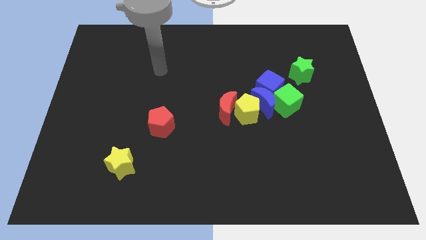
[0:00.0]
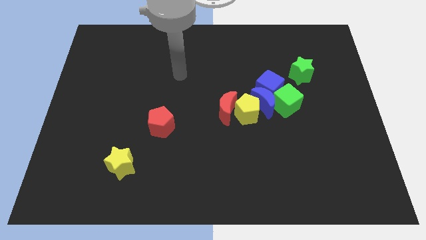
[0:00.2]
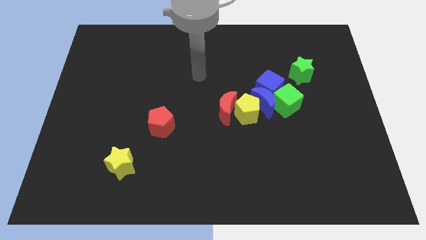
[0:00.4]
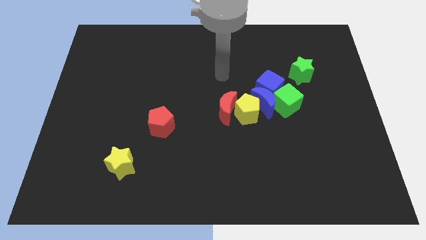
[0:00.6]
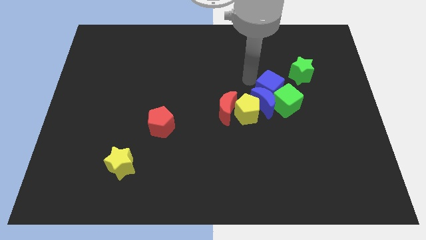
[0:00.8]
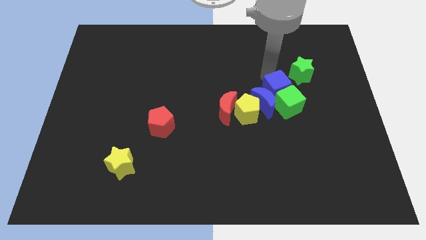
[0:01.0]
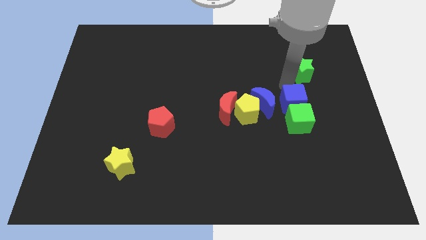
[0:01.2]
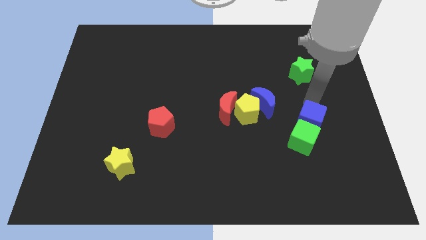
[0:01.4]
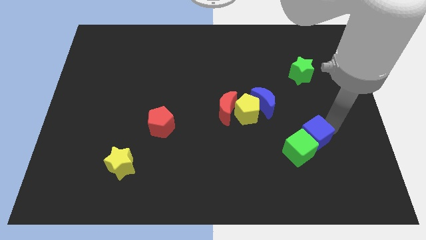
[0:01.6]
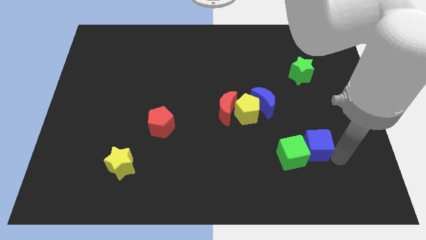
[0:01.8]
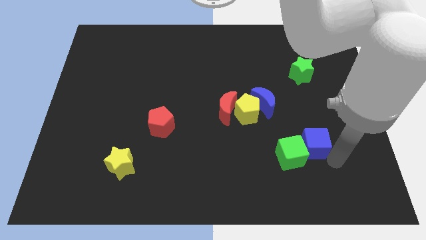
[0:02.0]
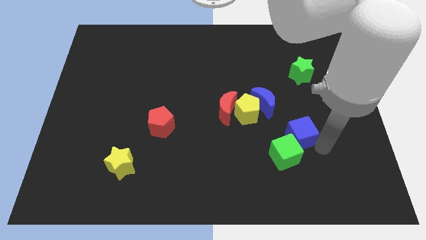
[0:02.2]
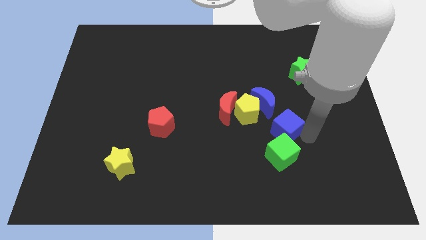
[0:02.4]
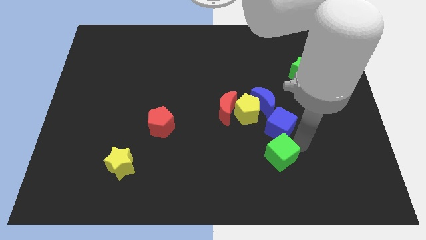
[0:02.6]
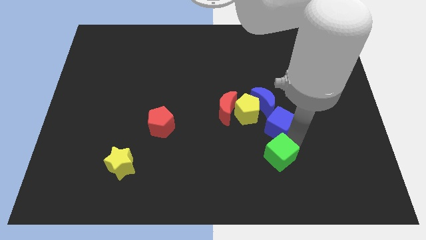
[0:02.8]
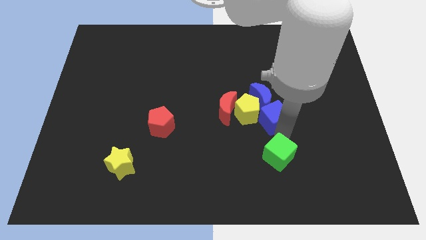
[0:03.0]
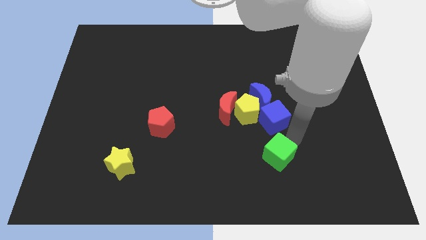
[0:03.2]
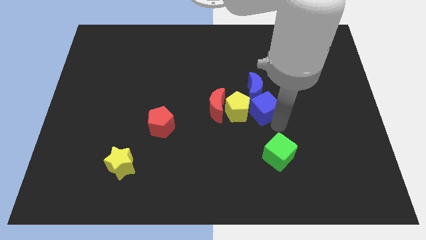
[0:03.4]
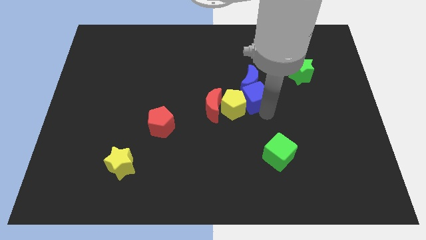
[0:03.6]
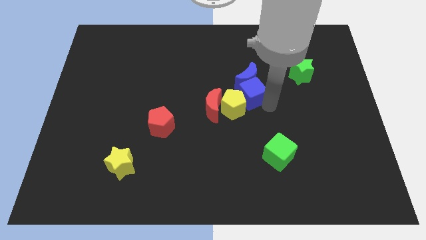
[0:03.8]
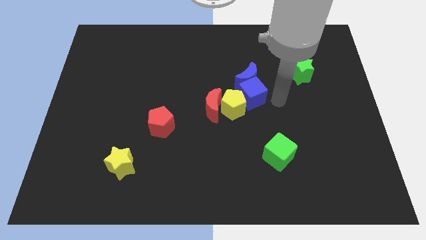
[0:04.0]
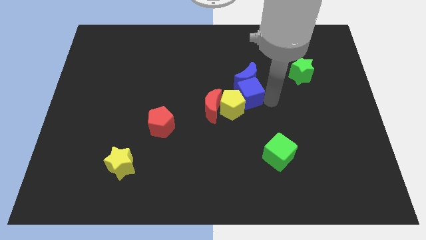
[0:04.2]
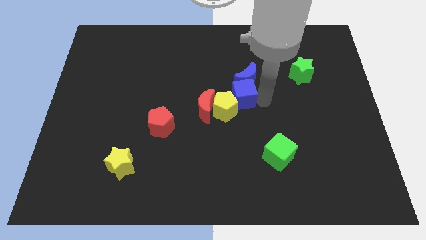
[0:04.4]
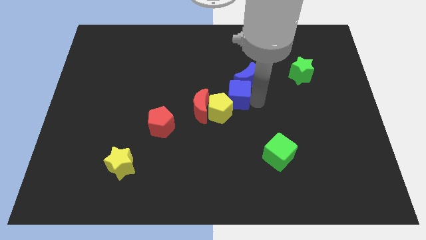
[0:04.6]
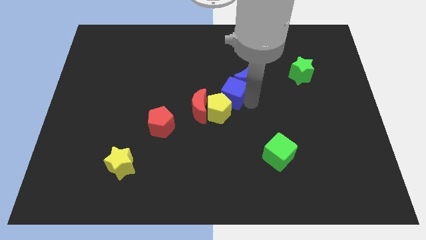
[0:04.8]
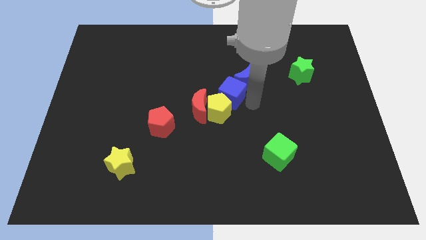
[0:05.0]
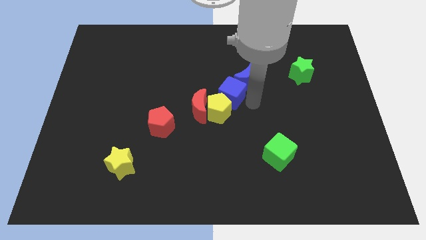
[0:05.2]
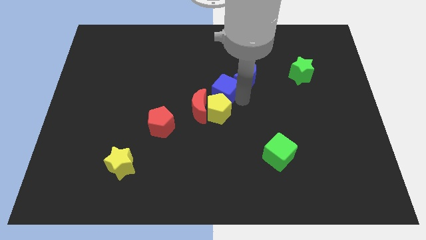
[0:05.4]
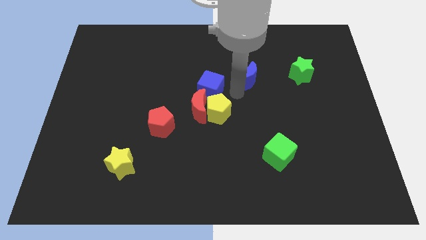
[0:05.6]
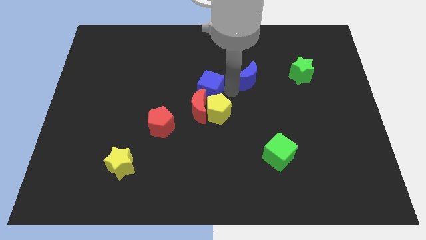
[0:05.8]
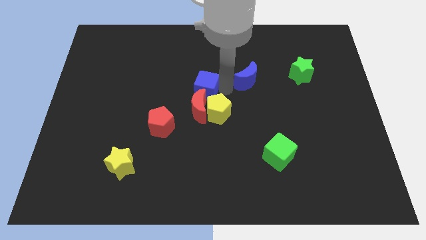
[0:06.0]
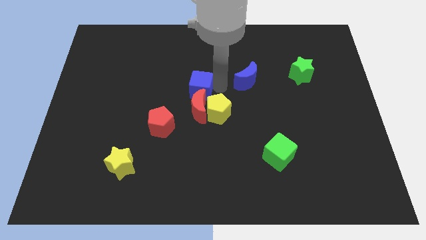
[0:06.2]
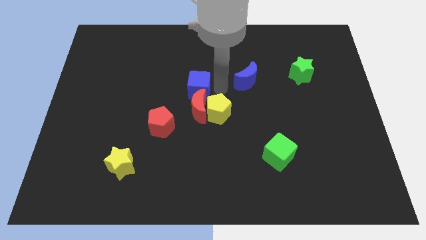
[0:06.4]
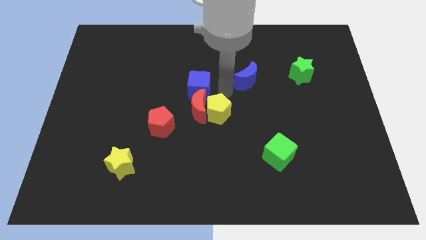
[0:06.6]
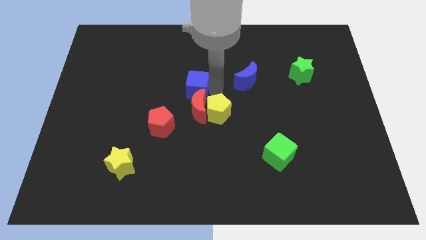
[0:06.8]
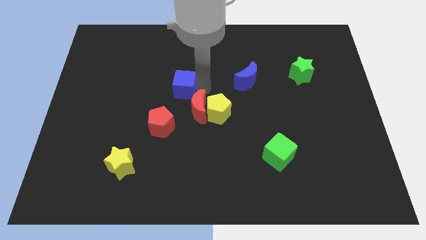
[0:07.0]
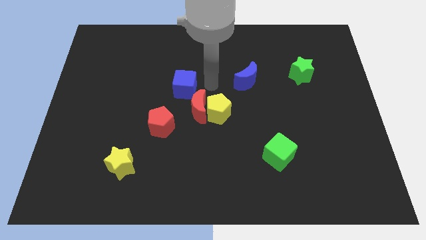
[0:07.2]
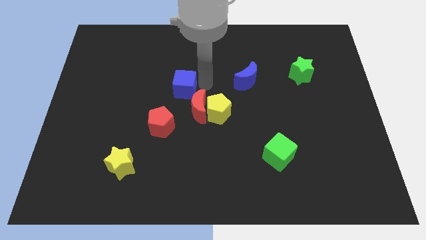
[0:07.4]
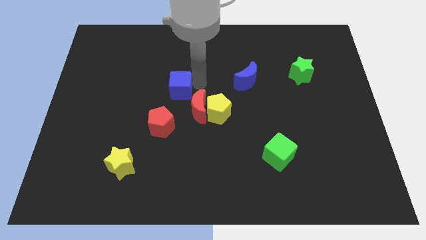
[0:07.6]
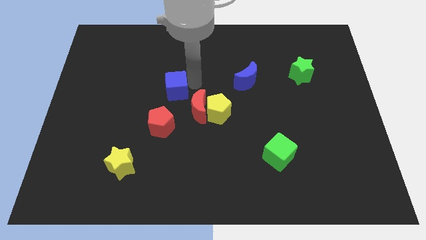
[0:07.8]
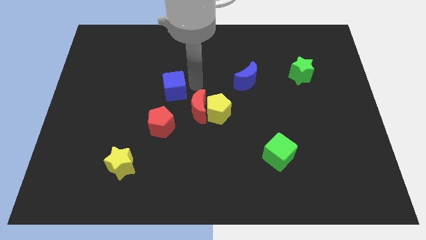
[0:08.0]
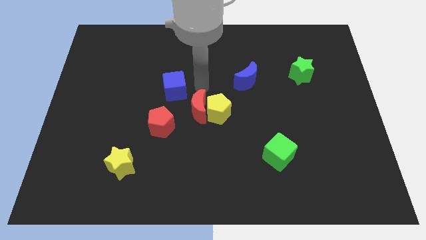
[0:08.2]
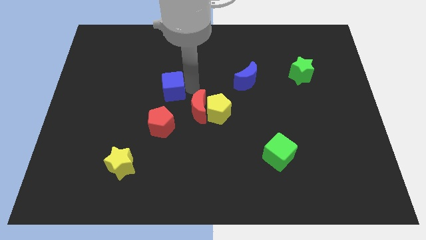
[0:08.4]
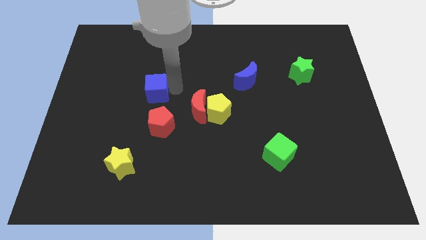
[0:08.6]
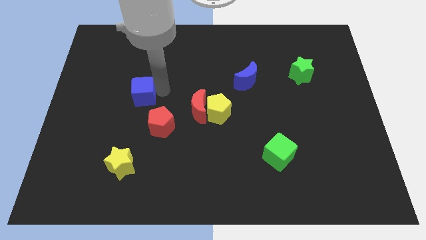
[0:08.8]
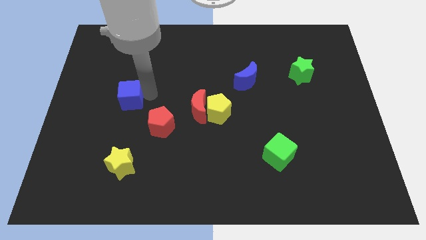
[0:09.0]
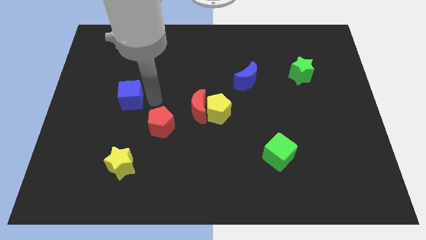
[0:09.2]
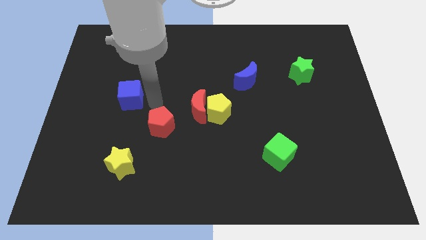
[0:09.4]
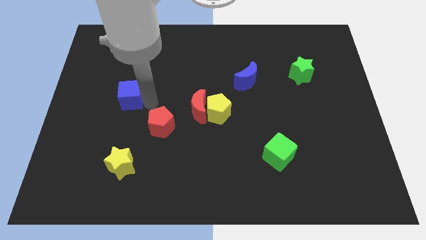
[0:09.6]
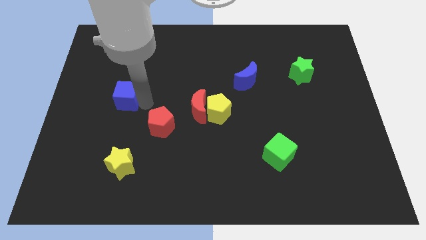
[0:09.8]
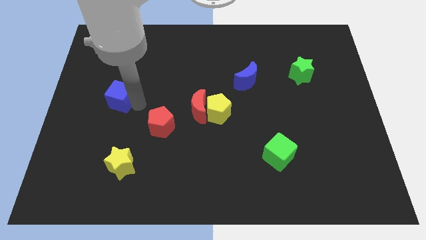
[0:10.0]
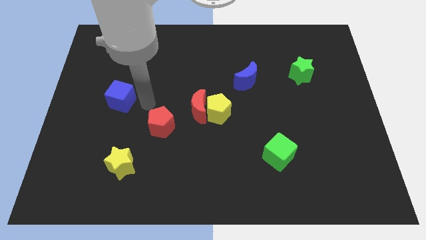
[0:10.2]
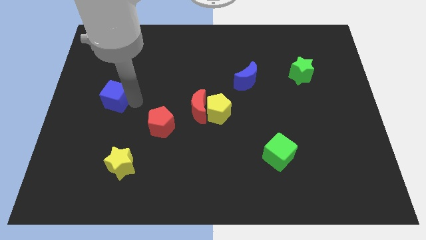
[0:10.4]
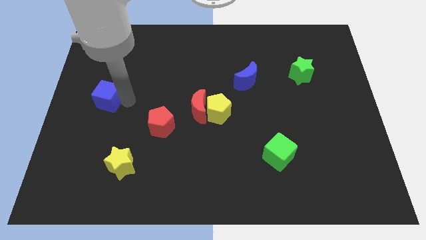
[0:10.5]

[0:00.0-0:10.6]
slide the blue cube to the left side

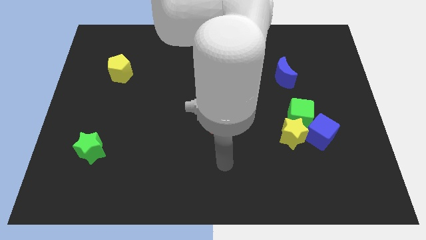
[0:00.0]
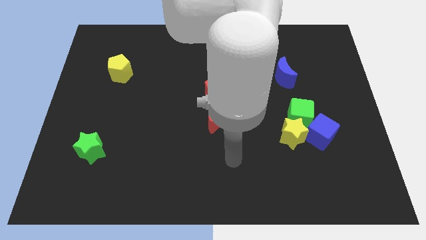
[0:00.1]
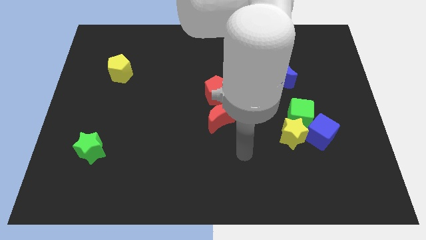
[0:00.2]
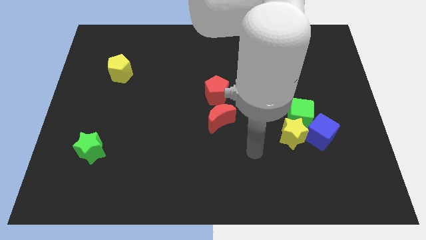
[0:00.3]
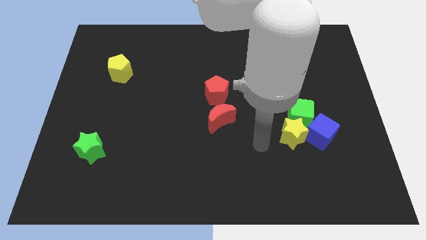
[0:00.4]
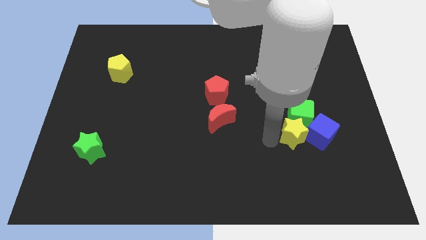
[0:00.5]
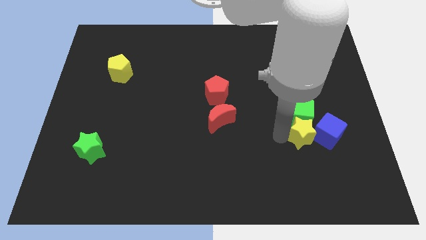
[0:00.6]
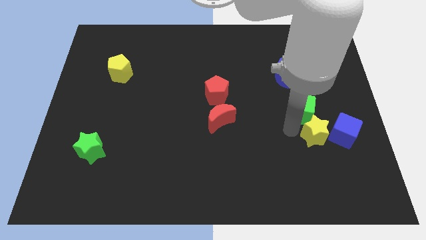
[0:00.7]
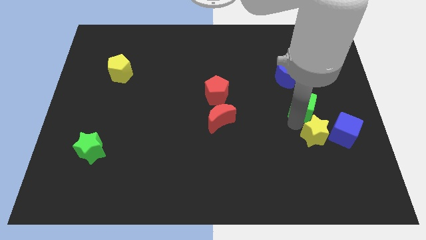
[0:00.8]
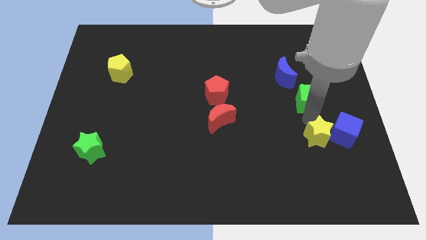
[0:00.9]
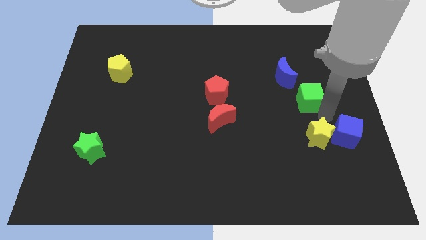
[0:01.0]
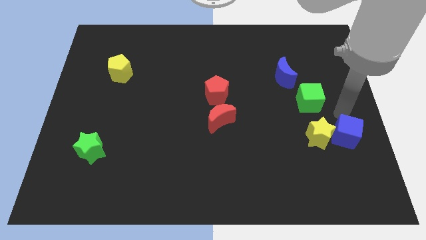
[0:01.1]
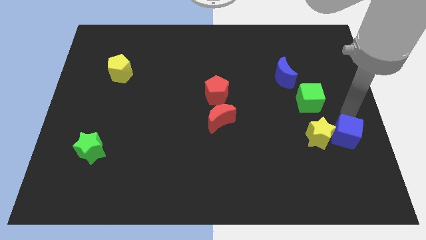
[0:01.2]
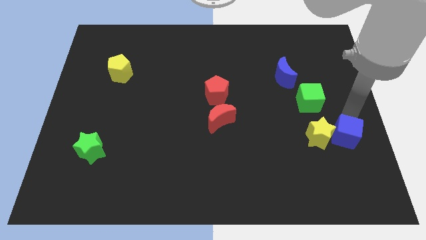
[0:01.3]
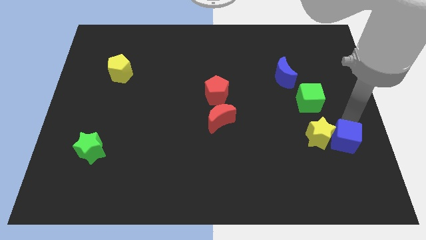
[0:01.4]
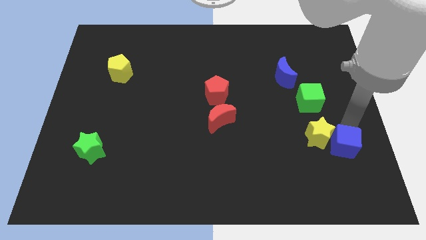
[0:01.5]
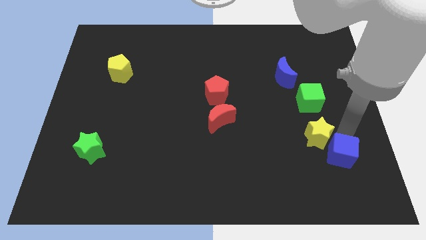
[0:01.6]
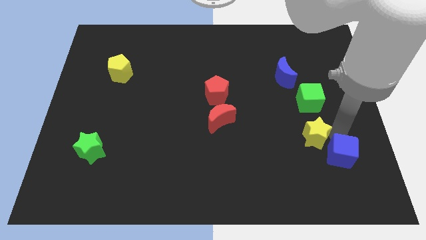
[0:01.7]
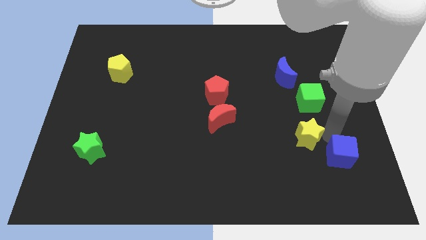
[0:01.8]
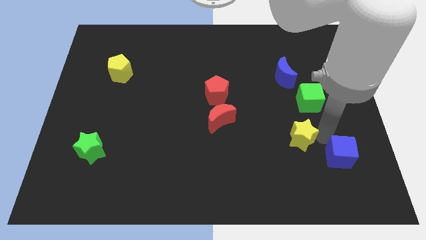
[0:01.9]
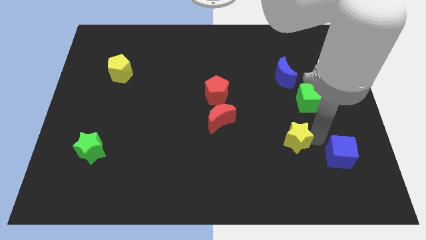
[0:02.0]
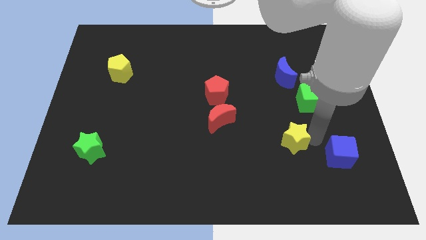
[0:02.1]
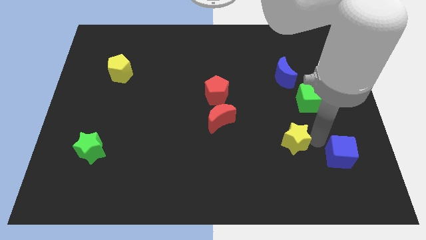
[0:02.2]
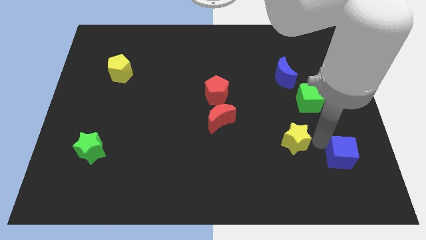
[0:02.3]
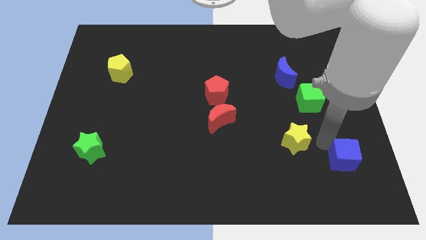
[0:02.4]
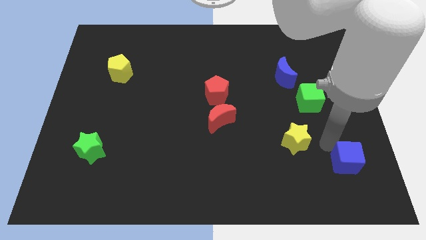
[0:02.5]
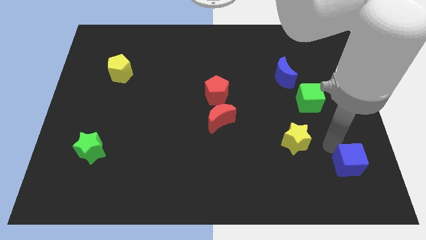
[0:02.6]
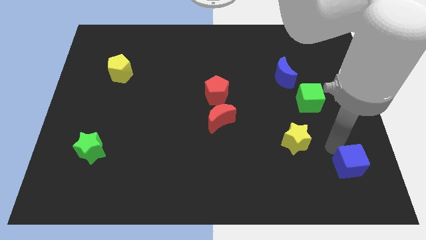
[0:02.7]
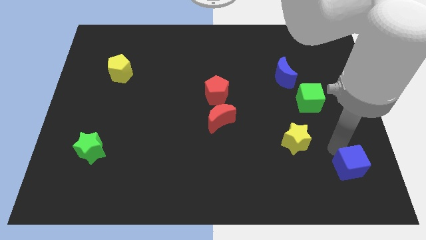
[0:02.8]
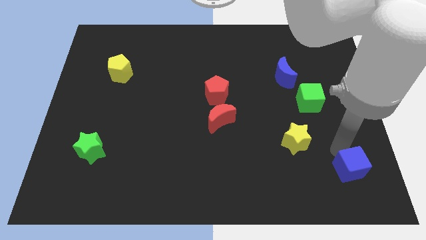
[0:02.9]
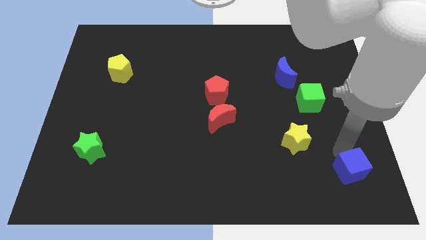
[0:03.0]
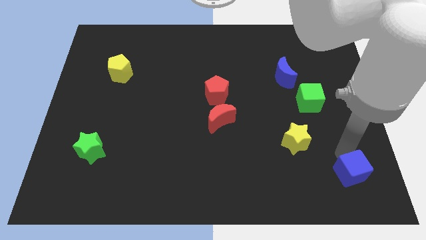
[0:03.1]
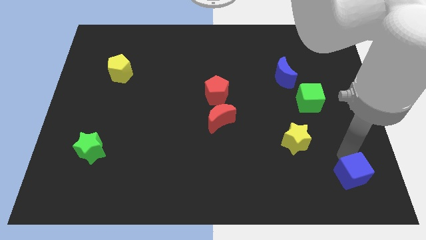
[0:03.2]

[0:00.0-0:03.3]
put the blue cube to the bottom right of the board
